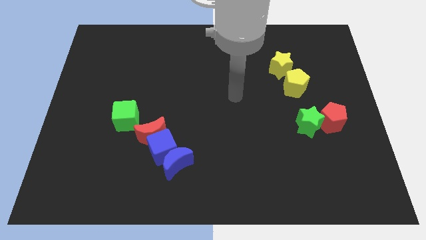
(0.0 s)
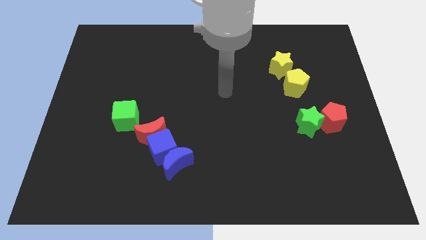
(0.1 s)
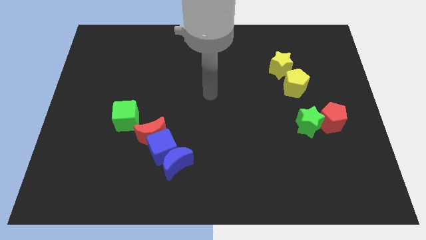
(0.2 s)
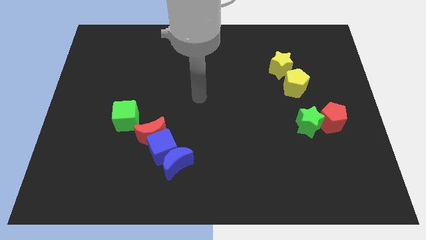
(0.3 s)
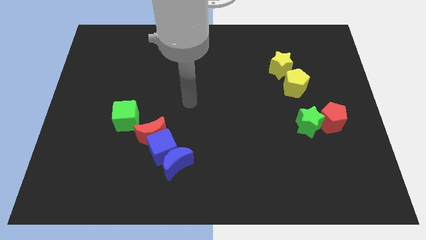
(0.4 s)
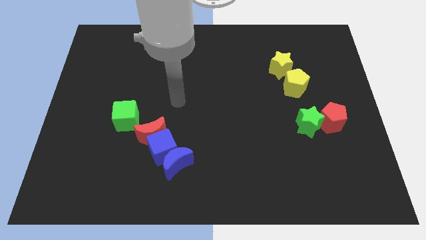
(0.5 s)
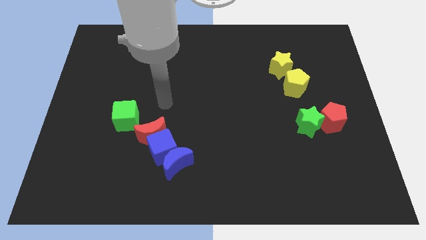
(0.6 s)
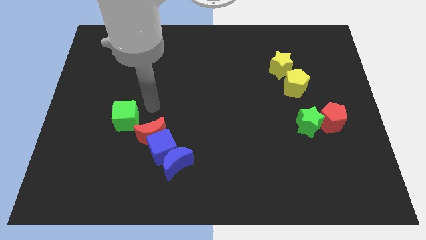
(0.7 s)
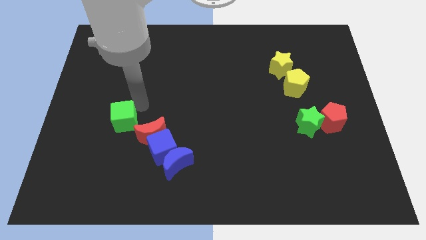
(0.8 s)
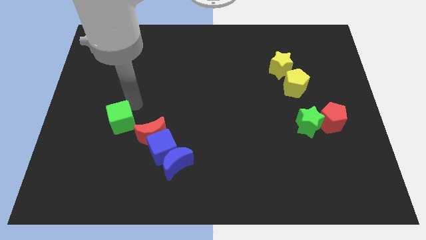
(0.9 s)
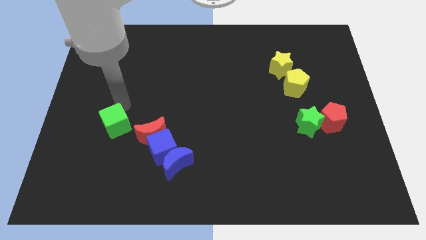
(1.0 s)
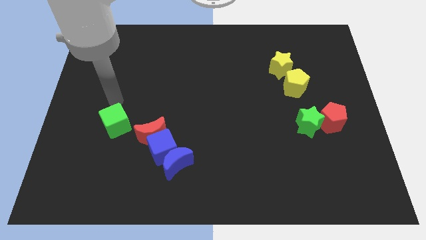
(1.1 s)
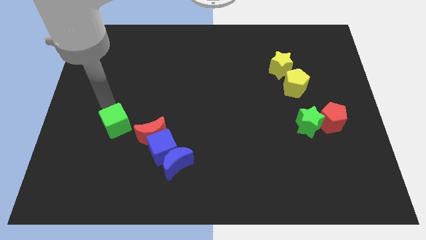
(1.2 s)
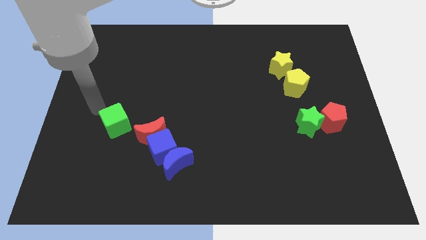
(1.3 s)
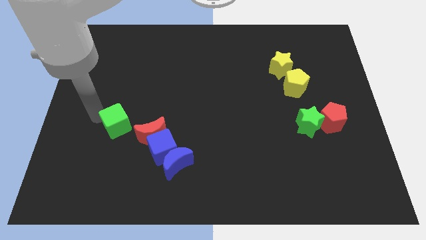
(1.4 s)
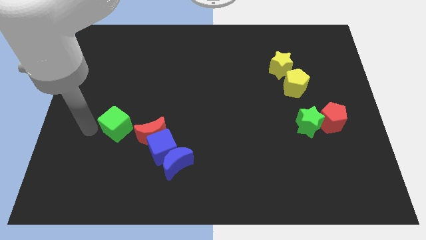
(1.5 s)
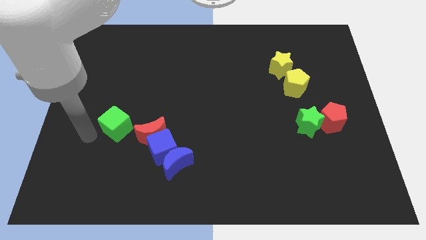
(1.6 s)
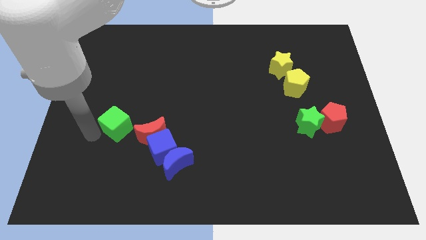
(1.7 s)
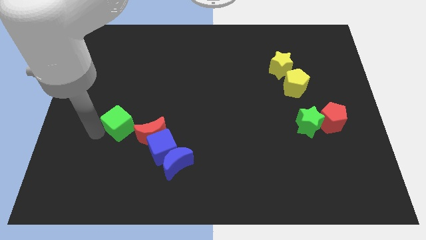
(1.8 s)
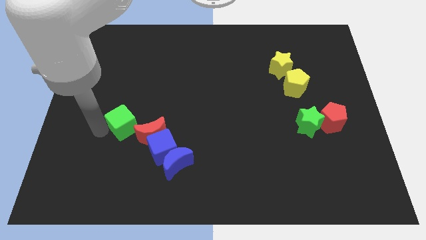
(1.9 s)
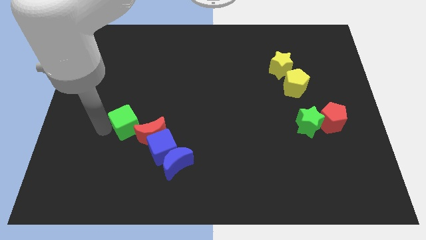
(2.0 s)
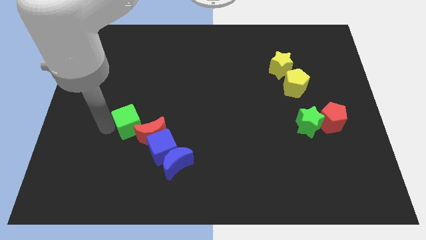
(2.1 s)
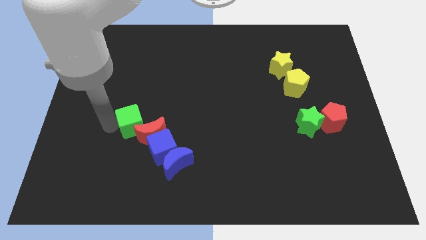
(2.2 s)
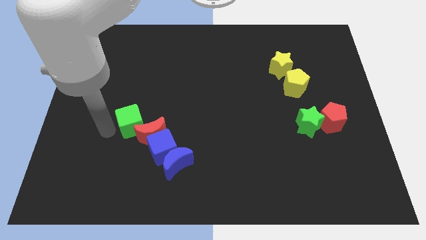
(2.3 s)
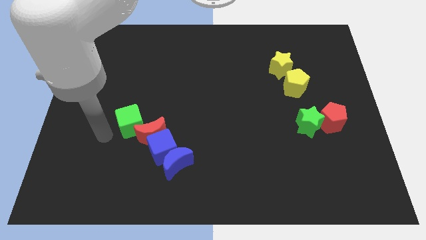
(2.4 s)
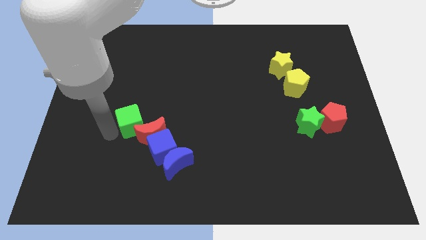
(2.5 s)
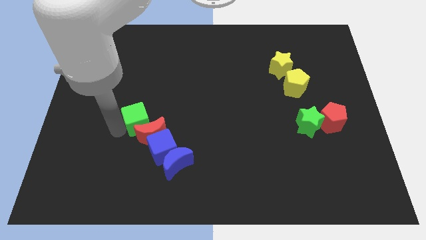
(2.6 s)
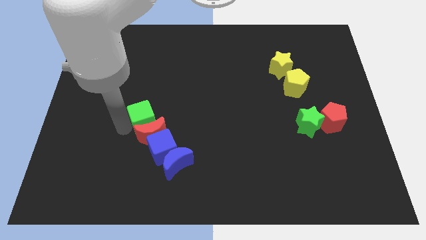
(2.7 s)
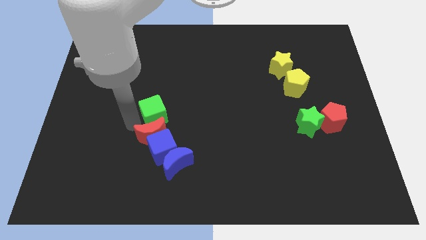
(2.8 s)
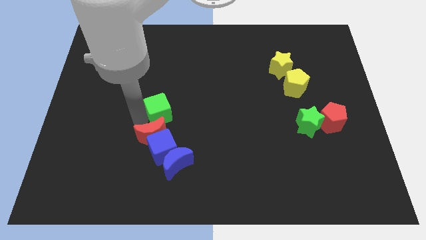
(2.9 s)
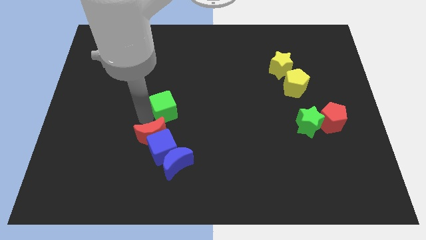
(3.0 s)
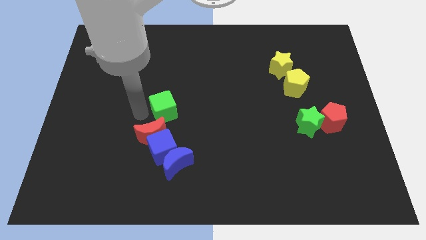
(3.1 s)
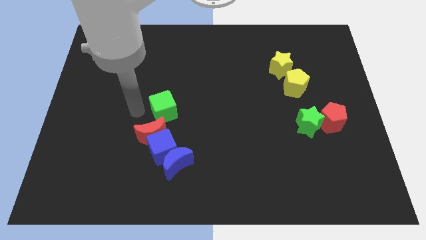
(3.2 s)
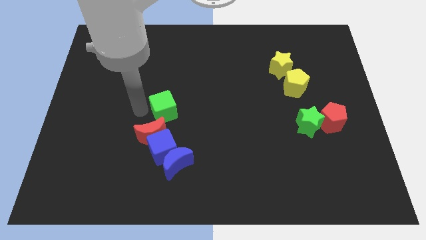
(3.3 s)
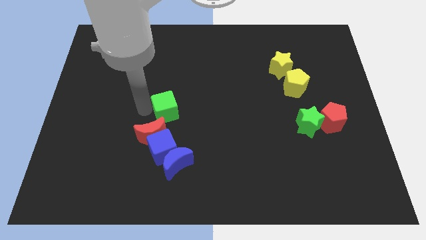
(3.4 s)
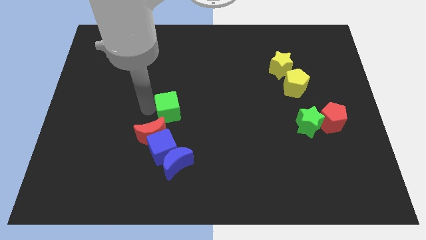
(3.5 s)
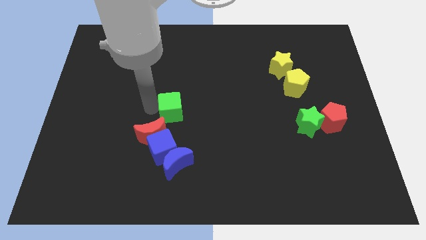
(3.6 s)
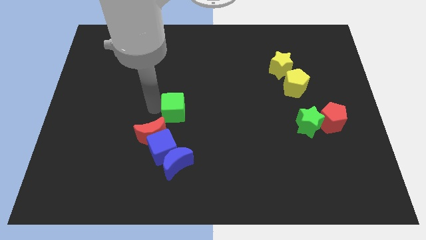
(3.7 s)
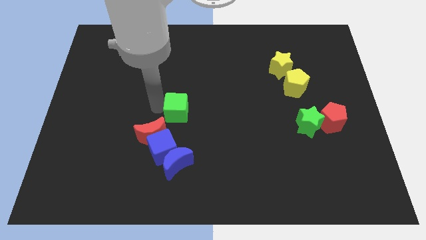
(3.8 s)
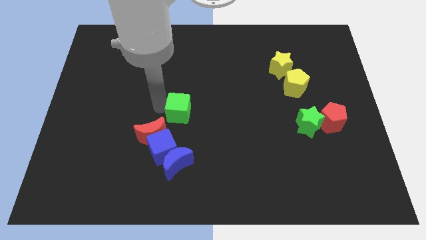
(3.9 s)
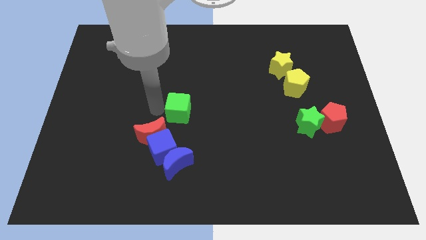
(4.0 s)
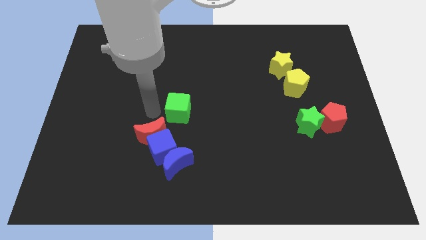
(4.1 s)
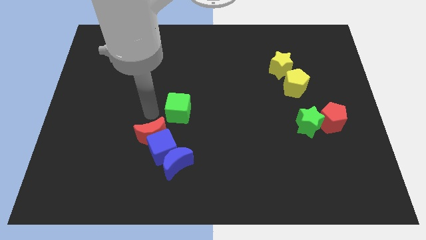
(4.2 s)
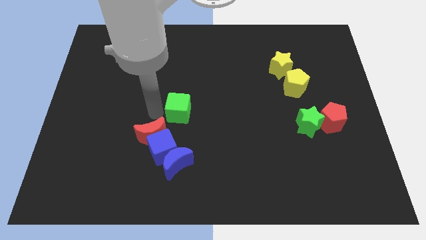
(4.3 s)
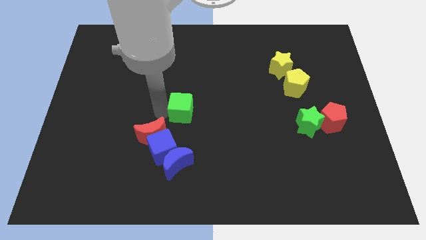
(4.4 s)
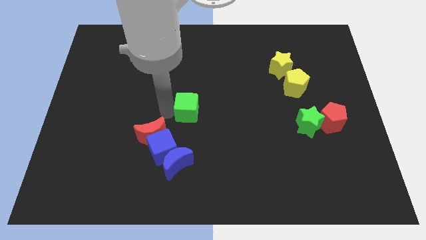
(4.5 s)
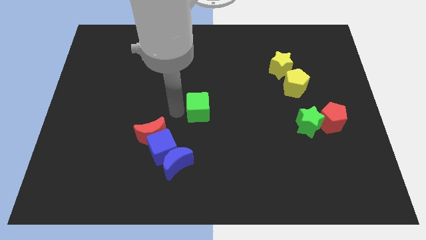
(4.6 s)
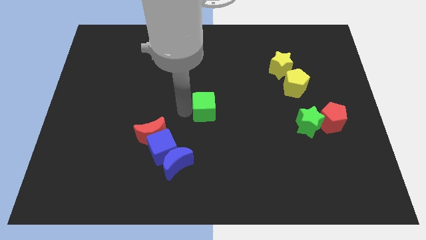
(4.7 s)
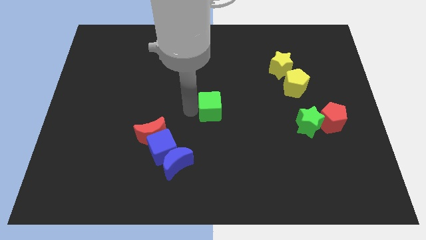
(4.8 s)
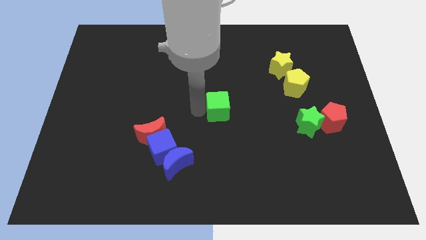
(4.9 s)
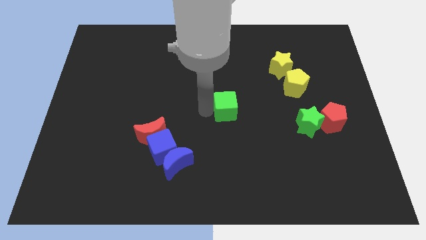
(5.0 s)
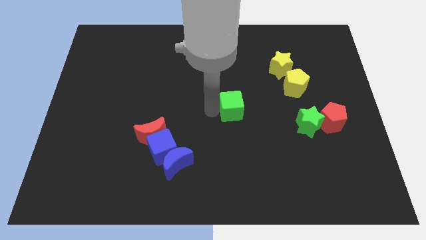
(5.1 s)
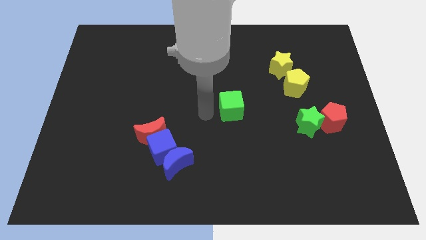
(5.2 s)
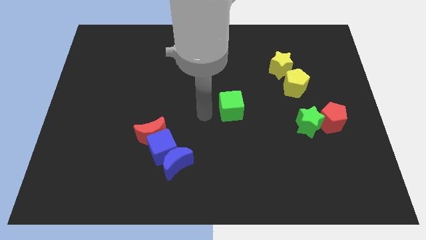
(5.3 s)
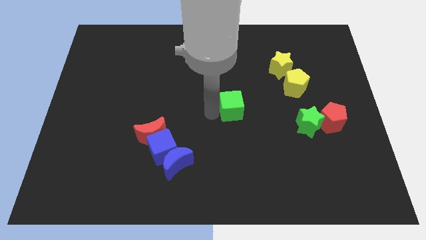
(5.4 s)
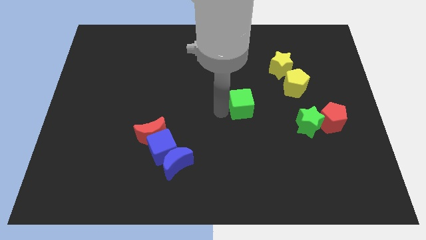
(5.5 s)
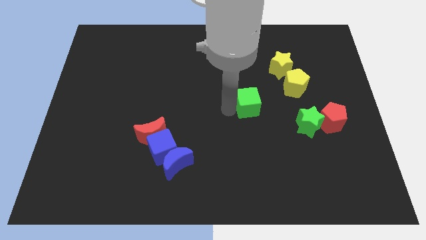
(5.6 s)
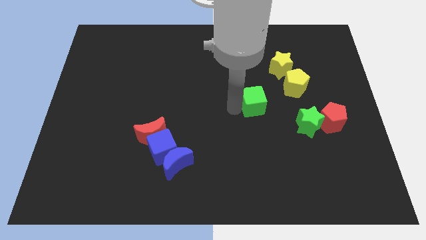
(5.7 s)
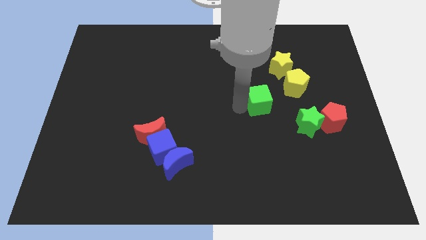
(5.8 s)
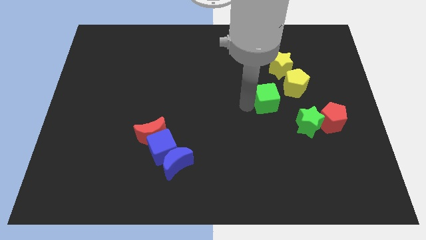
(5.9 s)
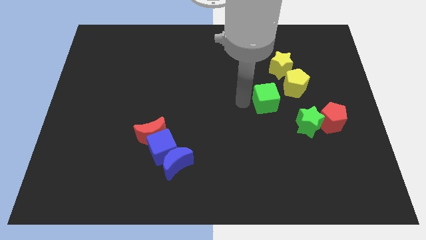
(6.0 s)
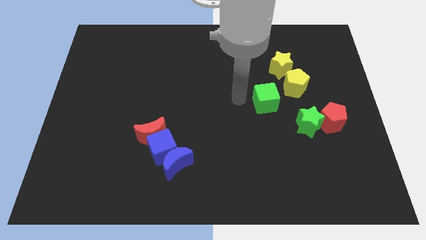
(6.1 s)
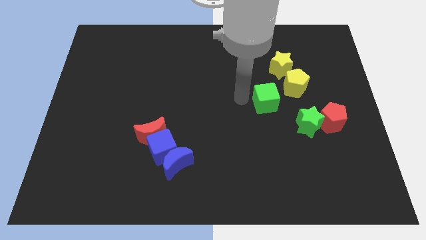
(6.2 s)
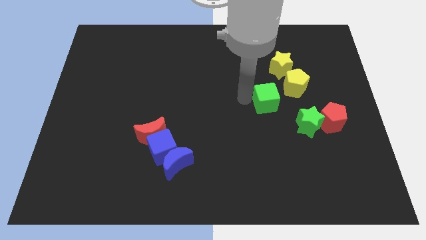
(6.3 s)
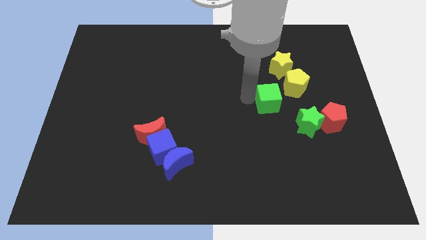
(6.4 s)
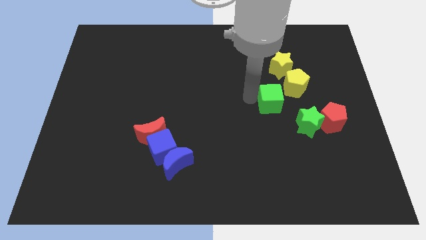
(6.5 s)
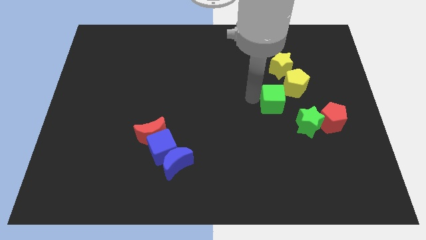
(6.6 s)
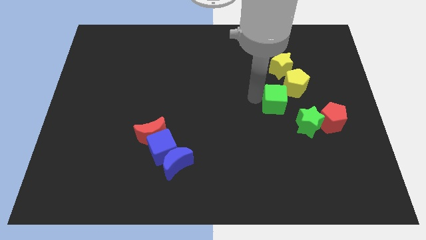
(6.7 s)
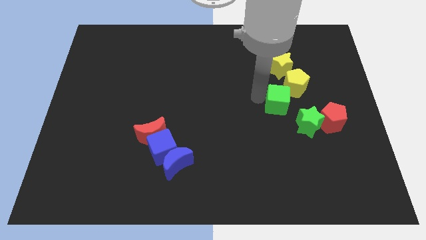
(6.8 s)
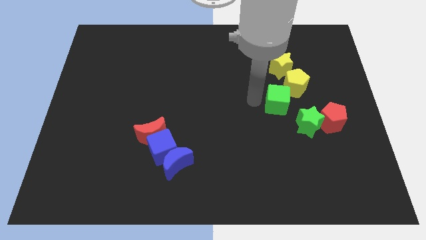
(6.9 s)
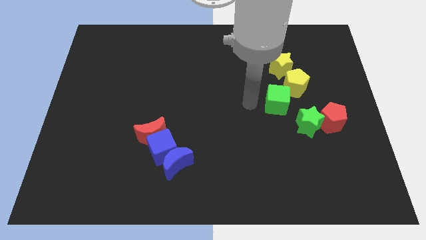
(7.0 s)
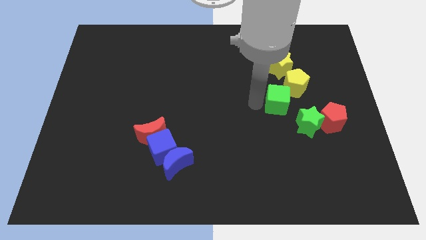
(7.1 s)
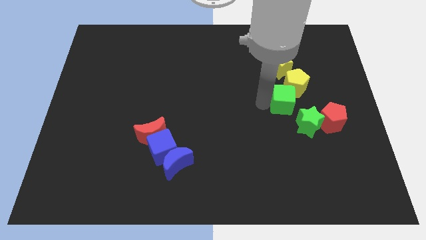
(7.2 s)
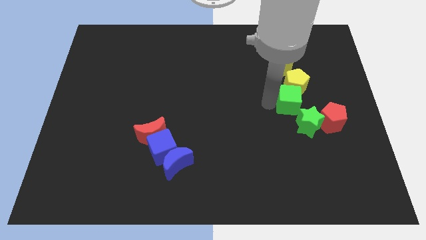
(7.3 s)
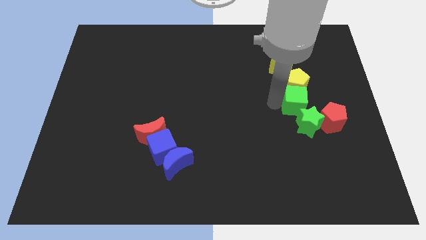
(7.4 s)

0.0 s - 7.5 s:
move the green cube diagonally down and to the right of the yellow pentagon
